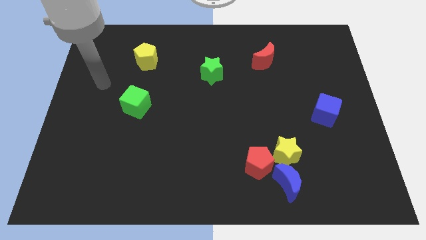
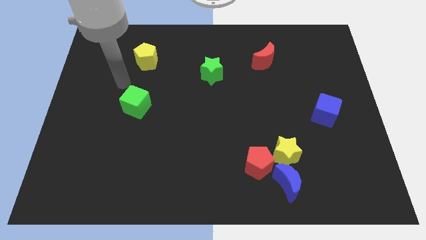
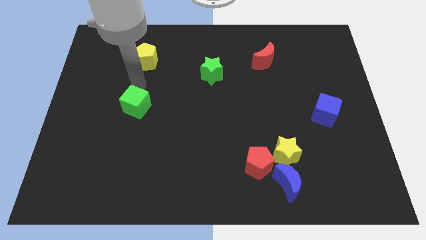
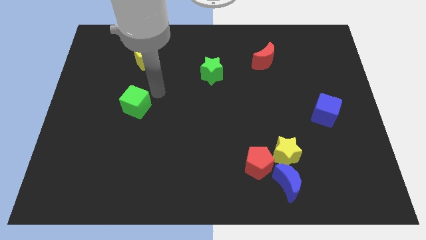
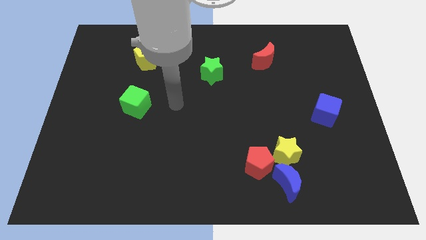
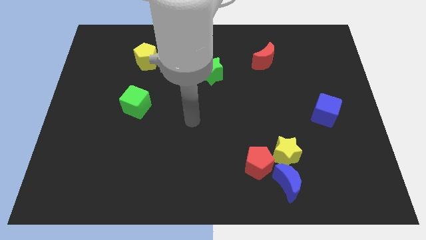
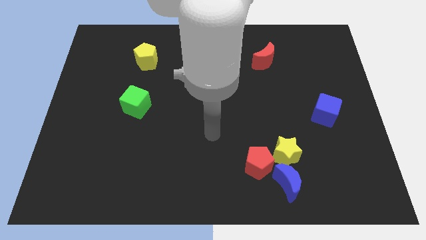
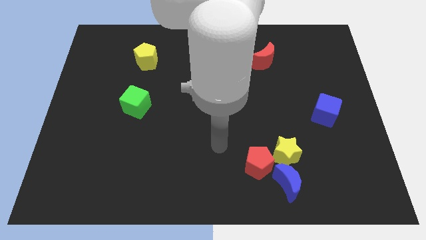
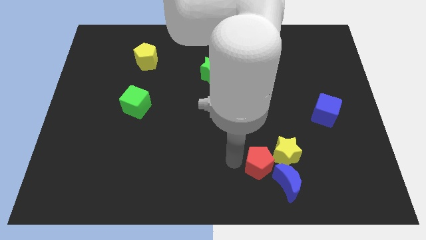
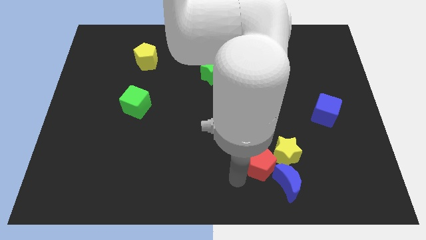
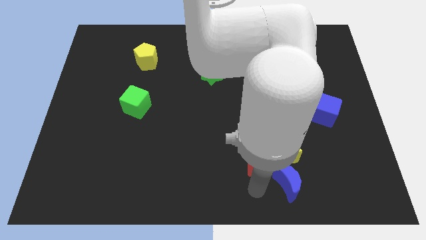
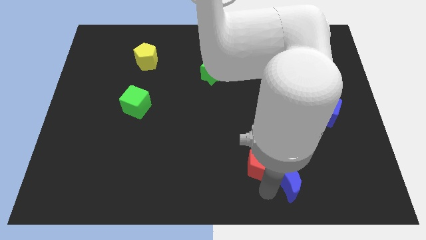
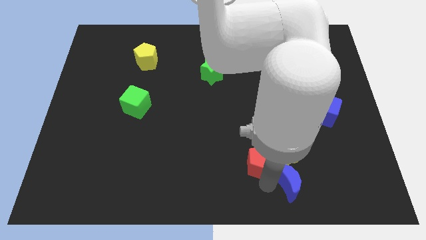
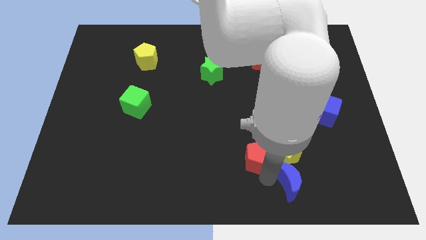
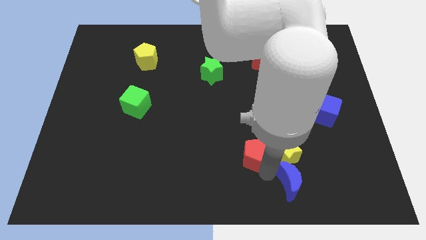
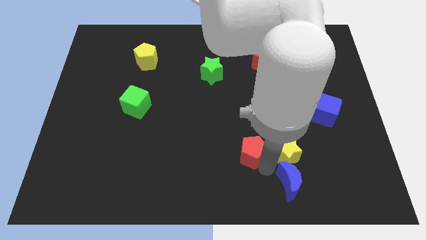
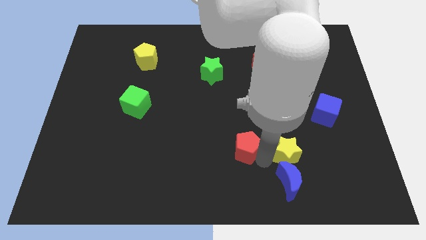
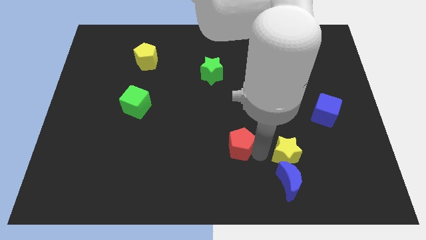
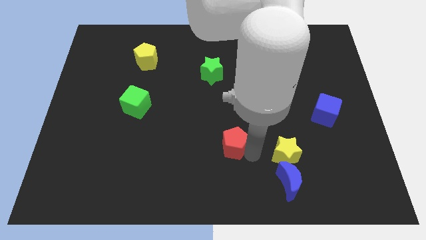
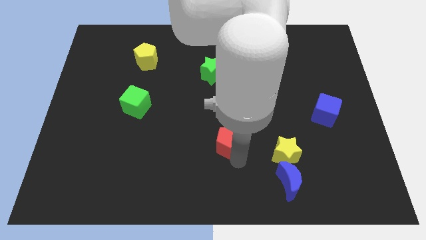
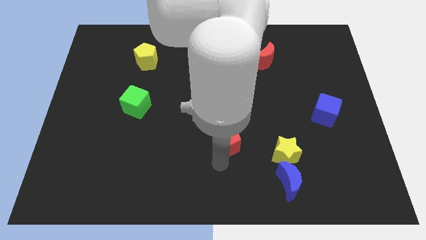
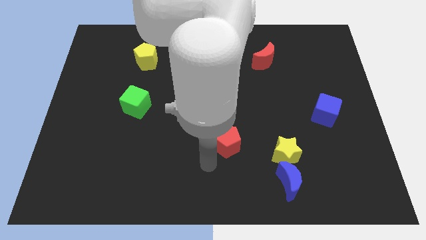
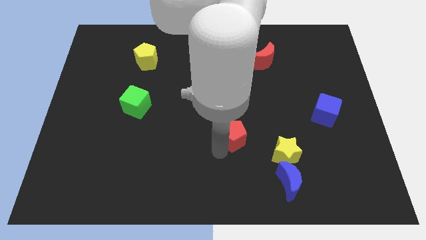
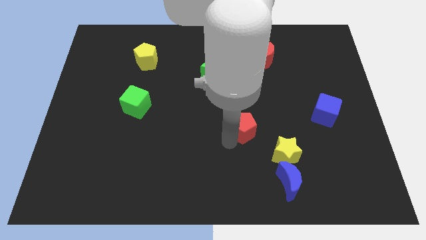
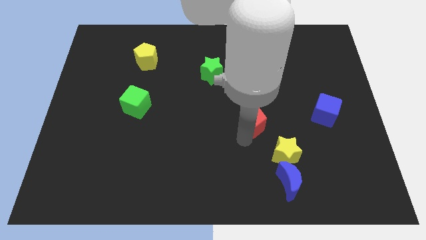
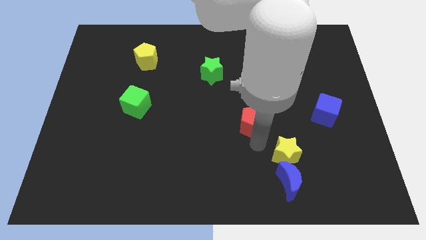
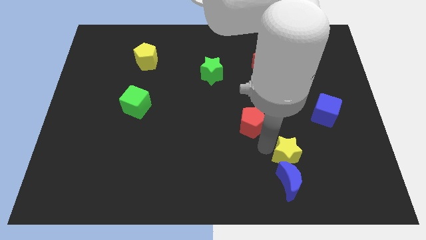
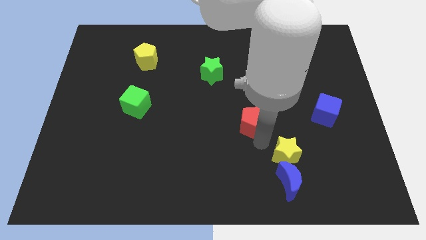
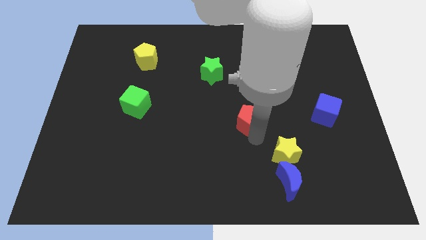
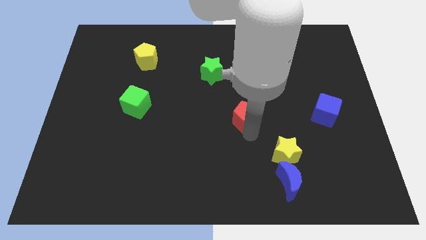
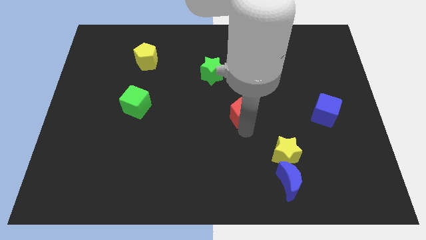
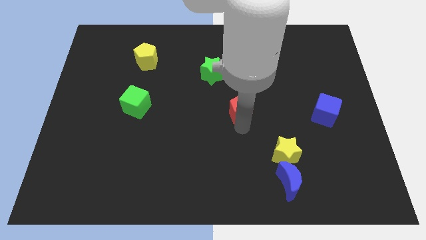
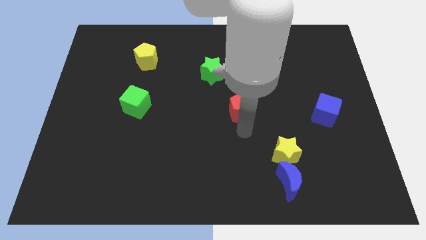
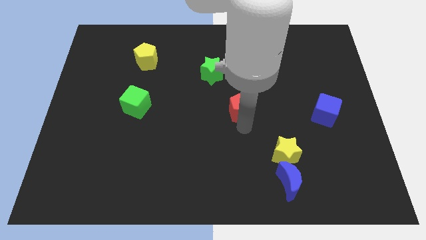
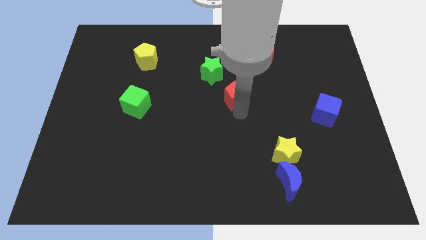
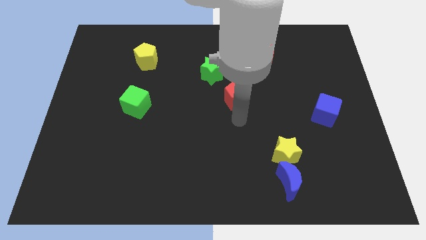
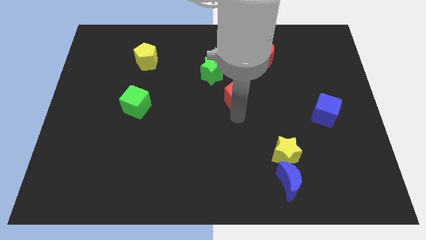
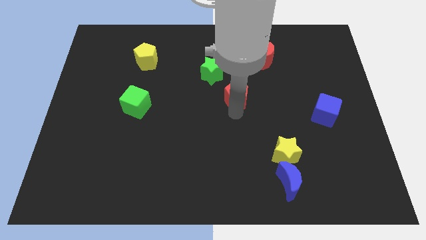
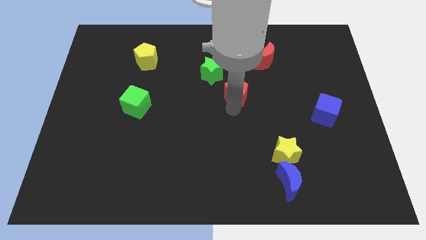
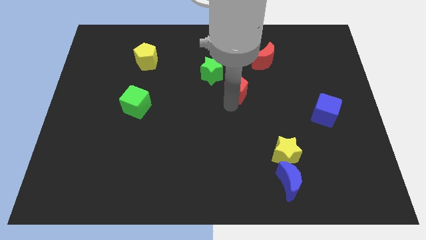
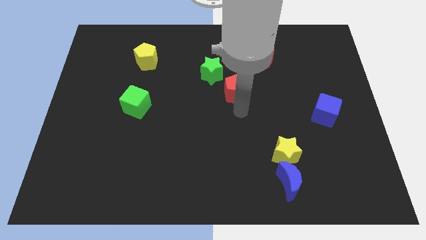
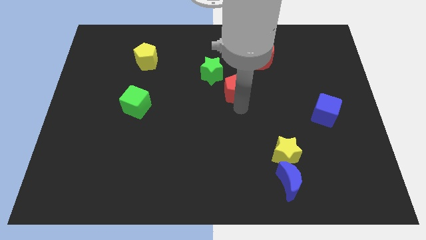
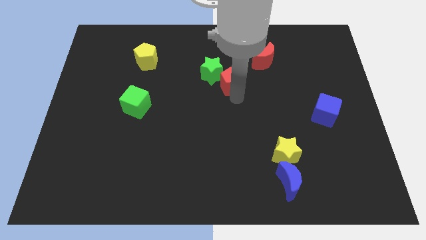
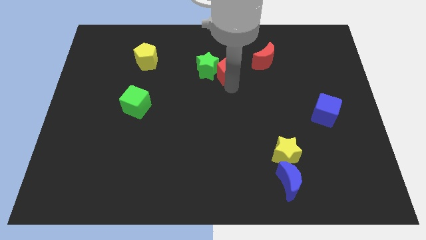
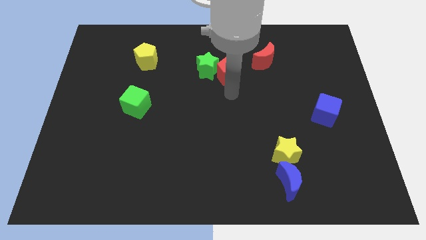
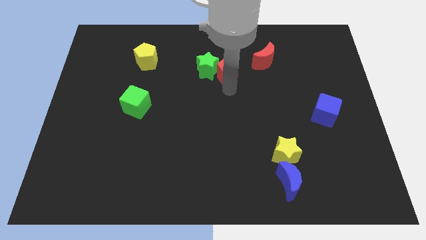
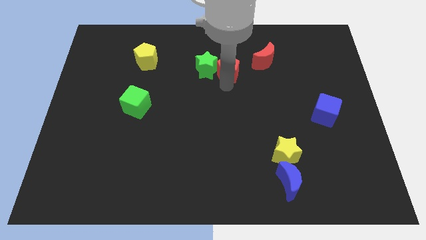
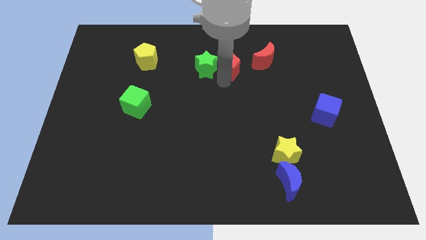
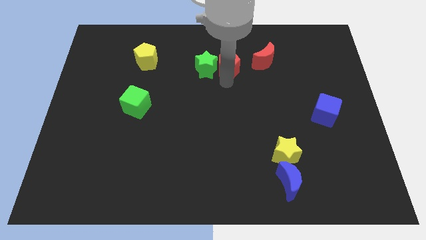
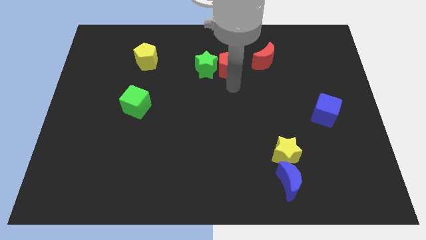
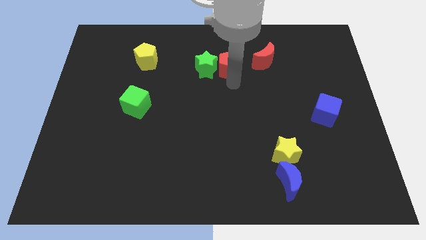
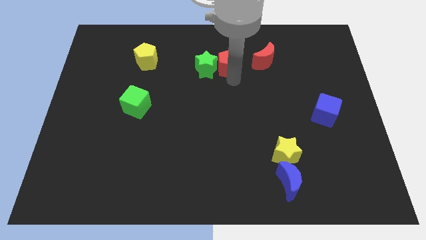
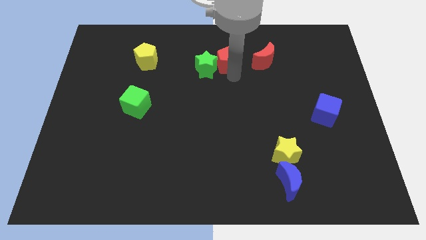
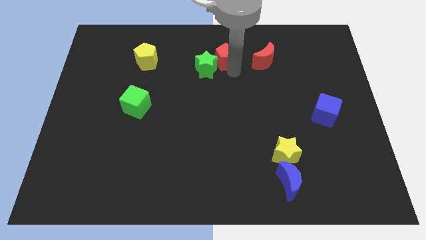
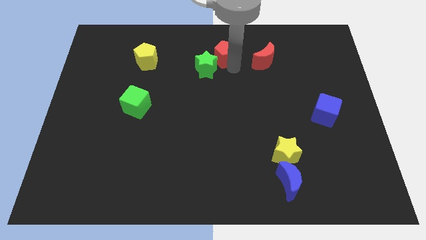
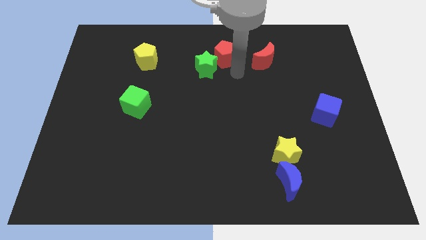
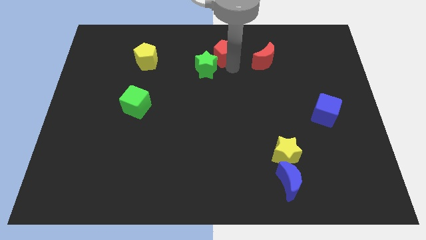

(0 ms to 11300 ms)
slide the red pentagon to the top

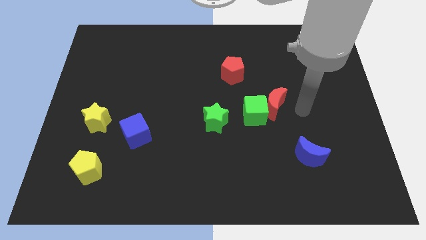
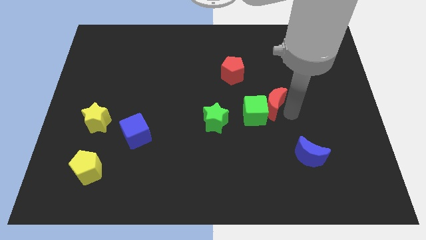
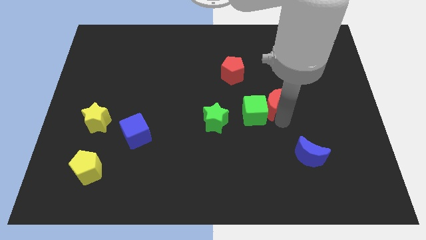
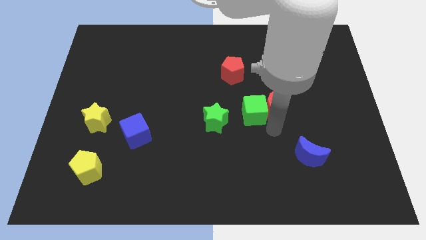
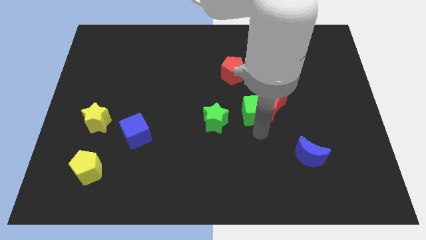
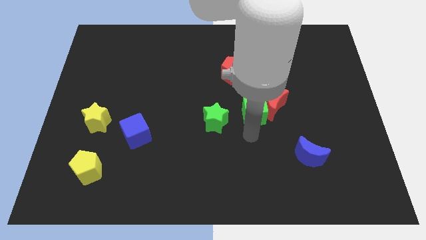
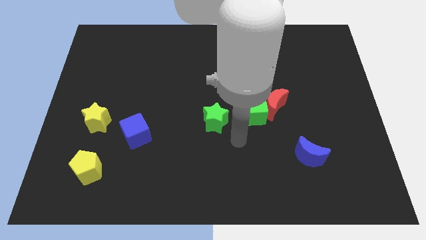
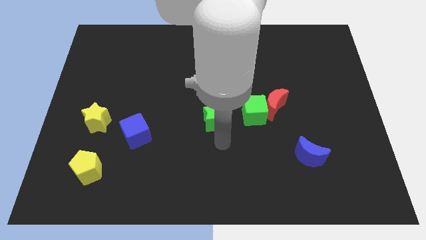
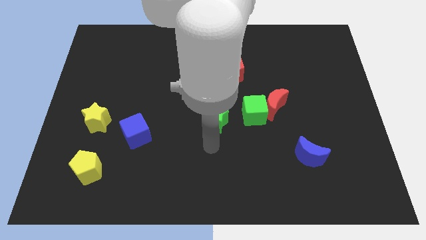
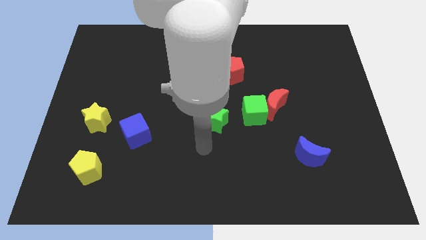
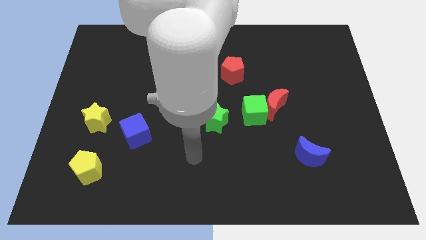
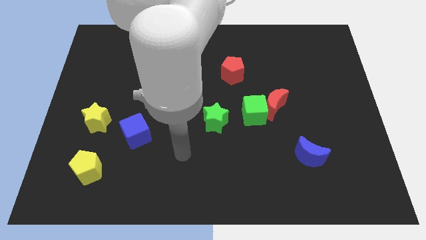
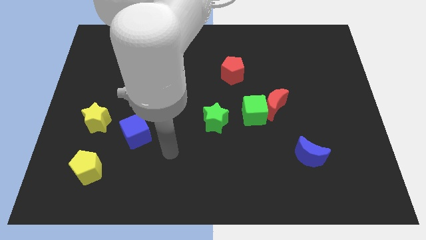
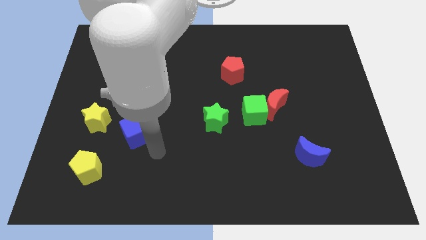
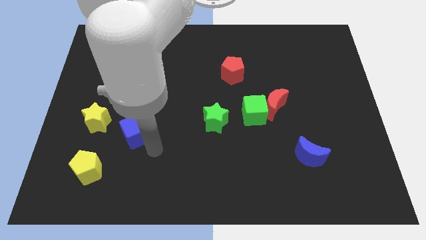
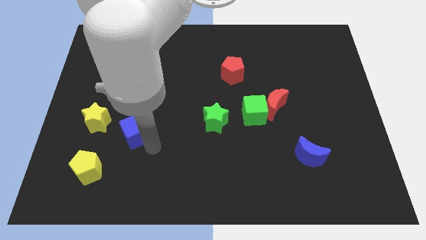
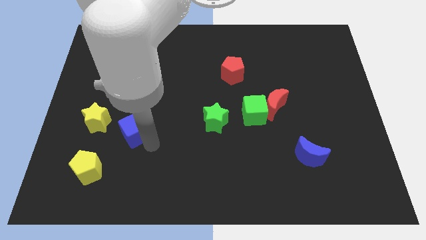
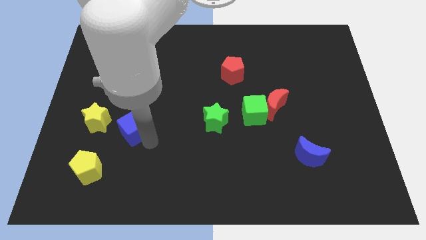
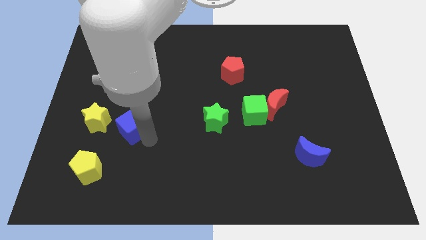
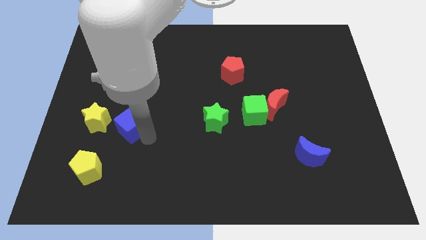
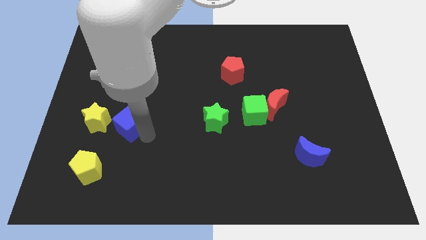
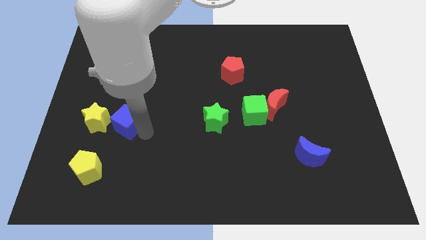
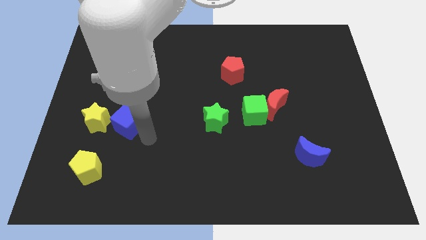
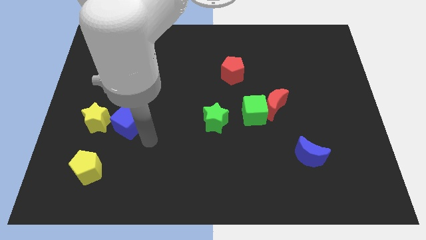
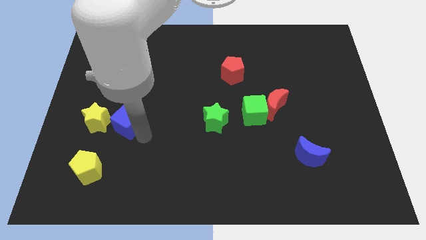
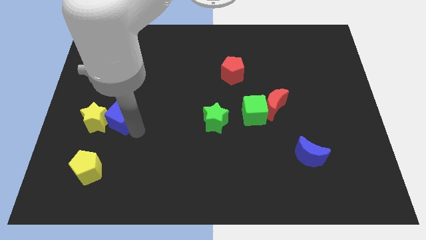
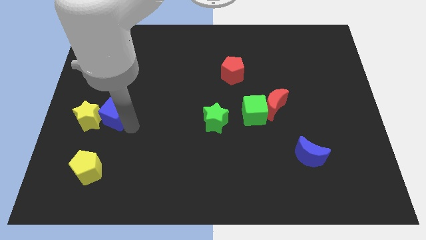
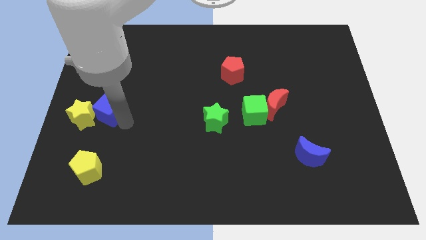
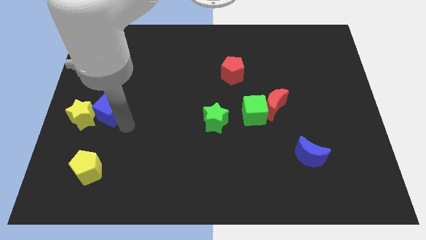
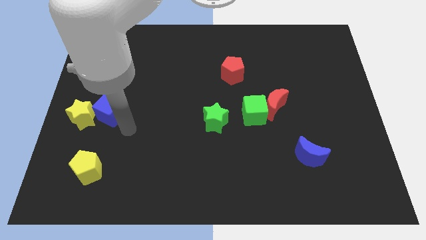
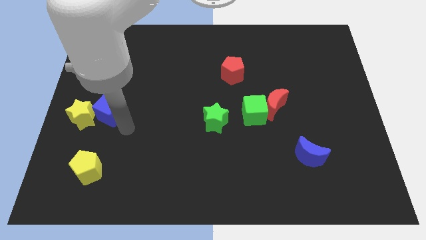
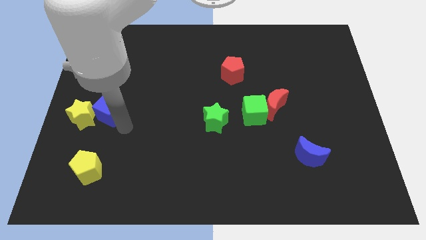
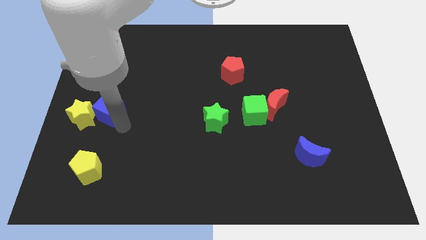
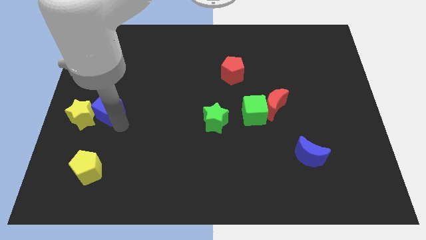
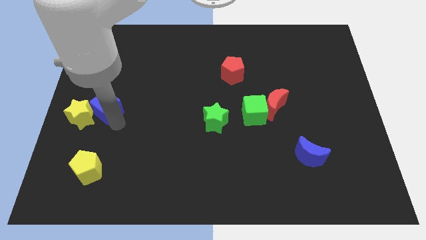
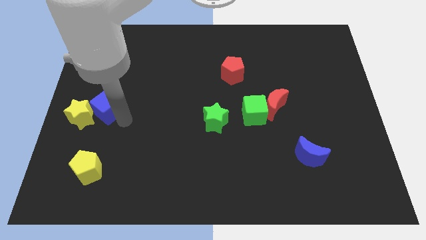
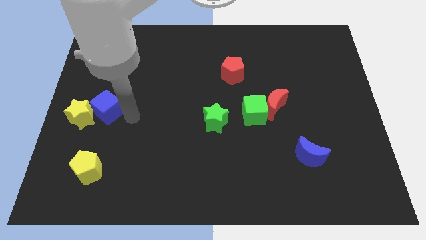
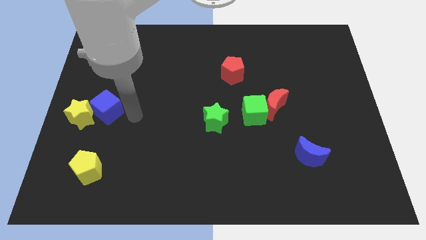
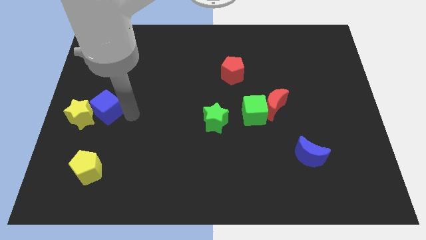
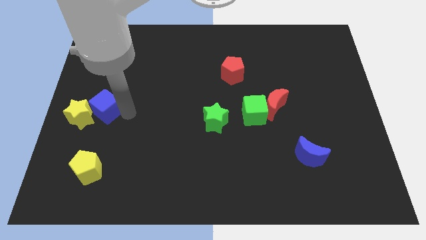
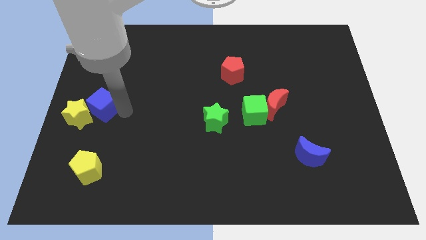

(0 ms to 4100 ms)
slide the blue cube to the left side of the board
